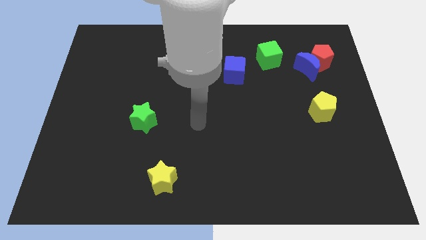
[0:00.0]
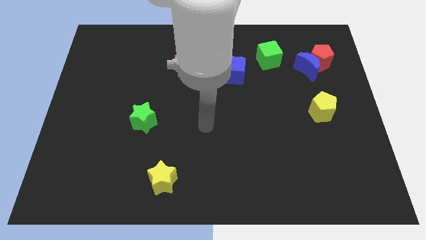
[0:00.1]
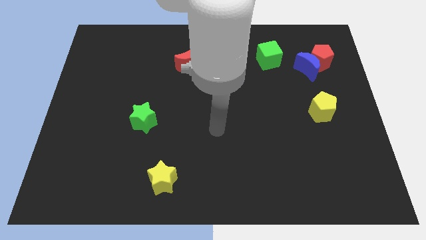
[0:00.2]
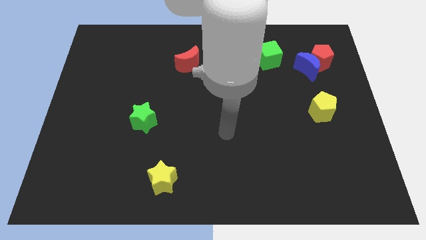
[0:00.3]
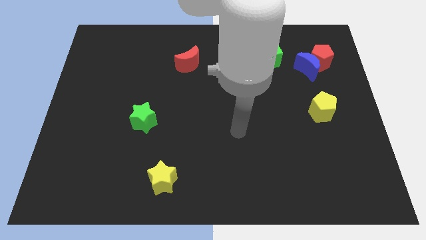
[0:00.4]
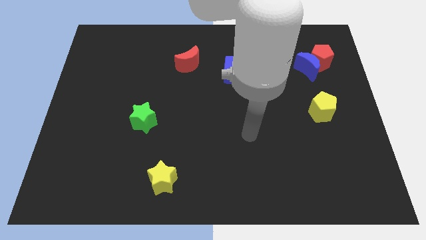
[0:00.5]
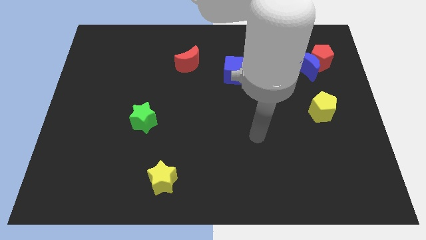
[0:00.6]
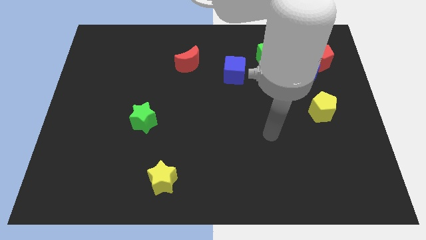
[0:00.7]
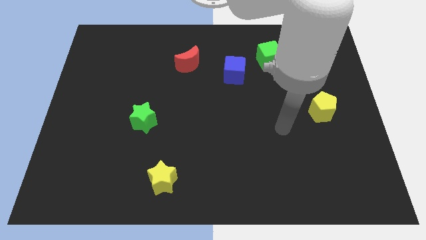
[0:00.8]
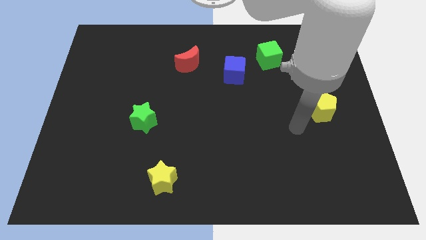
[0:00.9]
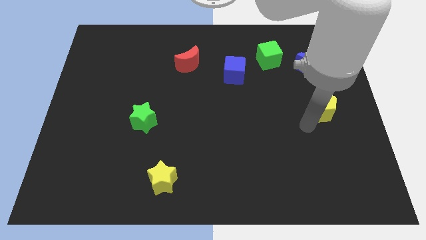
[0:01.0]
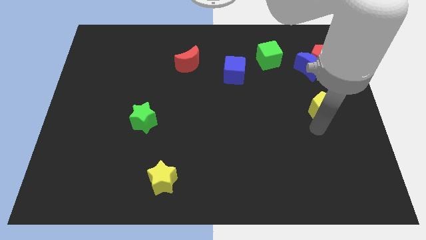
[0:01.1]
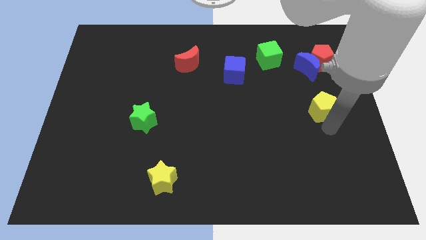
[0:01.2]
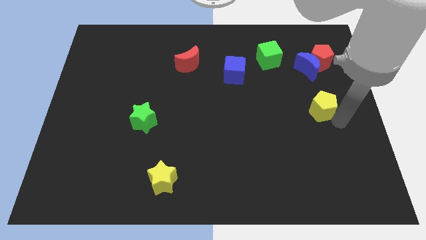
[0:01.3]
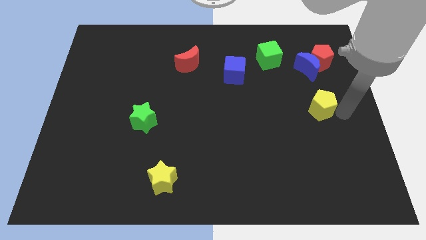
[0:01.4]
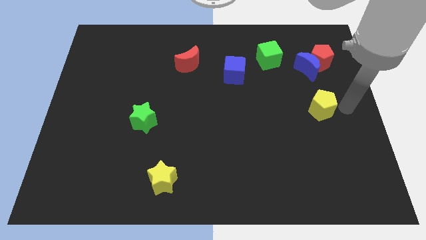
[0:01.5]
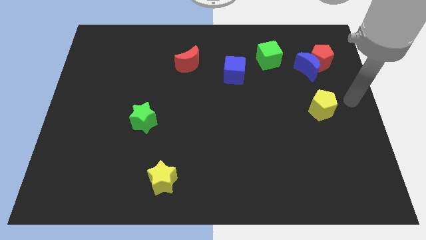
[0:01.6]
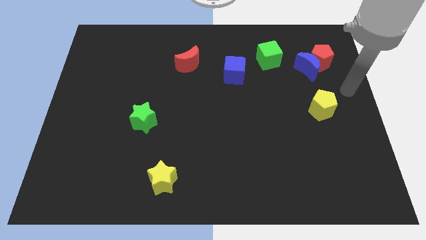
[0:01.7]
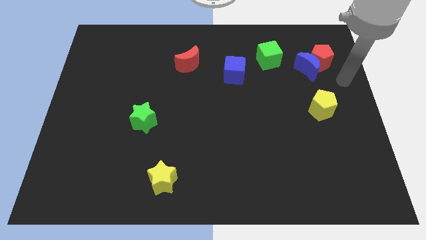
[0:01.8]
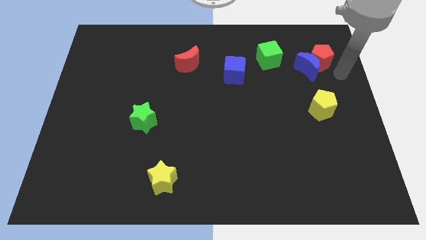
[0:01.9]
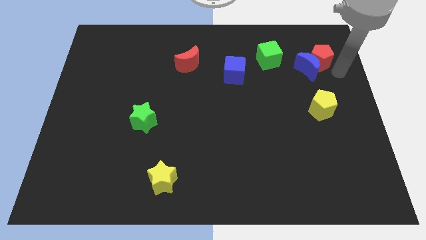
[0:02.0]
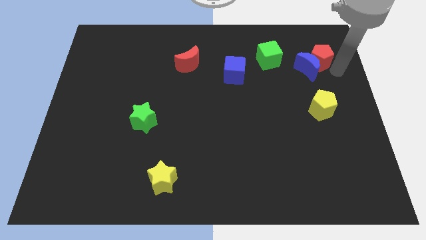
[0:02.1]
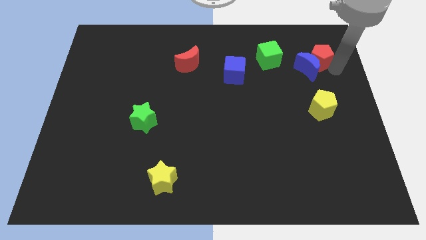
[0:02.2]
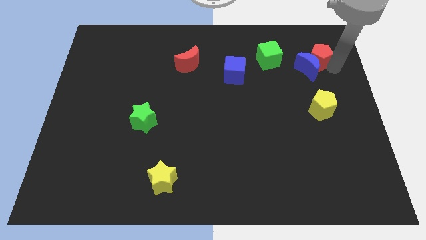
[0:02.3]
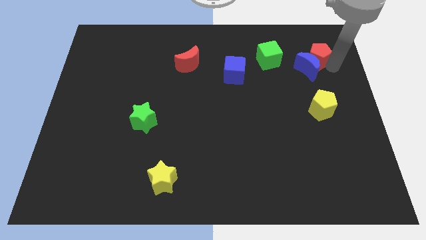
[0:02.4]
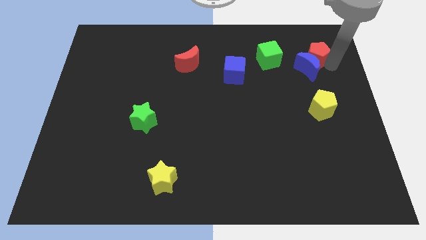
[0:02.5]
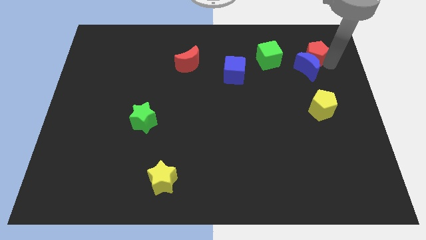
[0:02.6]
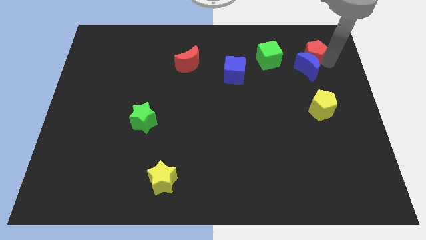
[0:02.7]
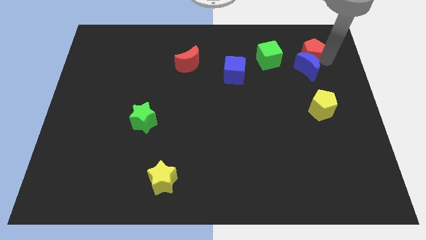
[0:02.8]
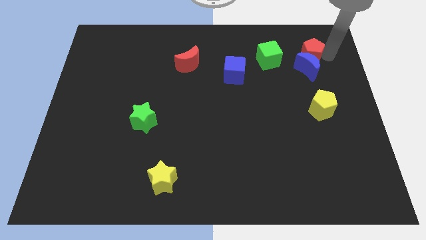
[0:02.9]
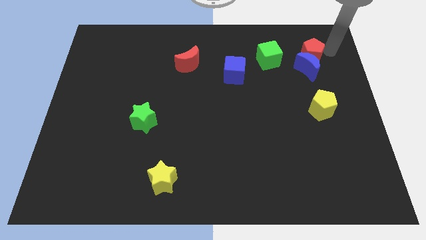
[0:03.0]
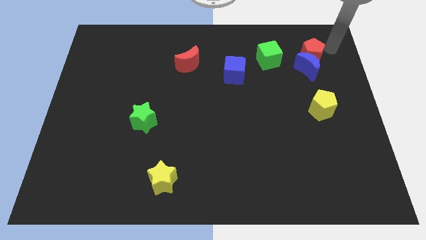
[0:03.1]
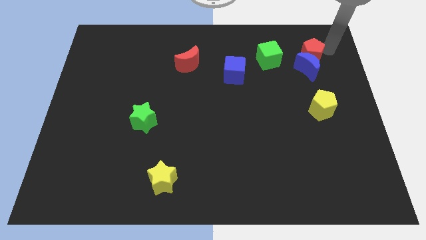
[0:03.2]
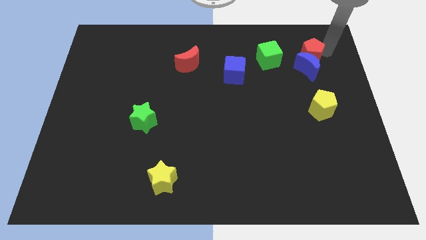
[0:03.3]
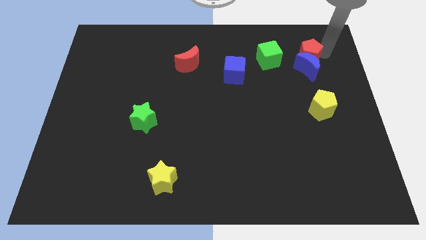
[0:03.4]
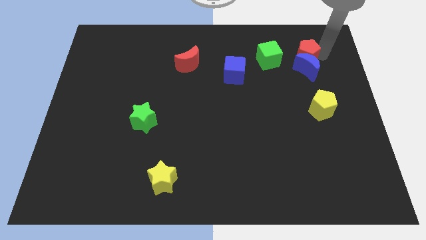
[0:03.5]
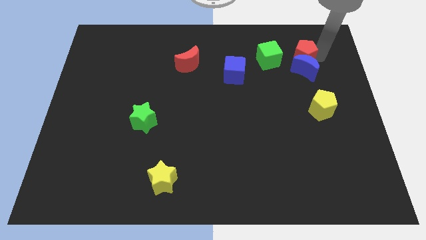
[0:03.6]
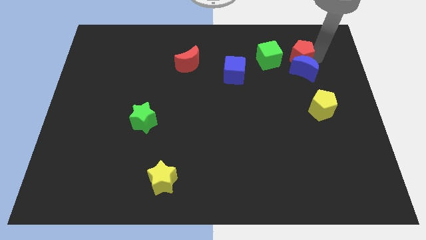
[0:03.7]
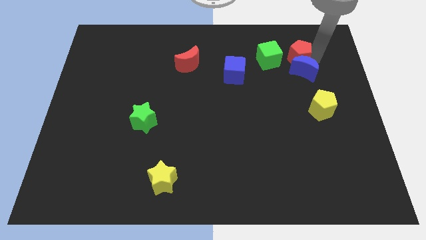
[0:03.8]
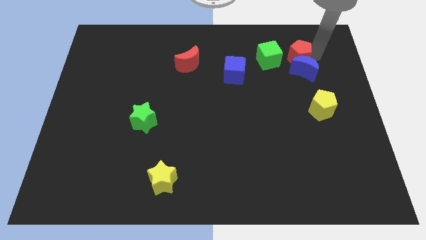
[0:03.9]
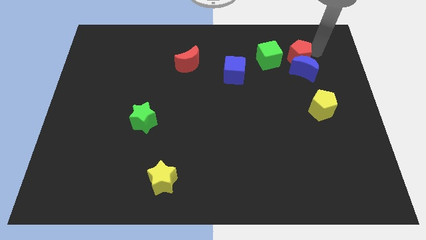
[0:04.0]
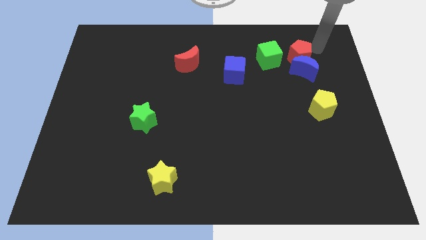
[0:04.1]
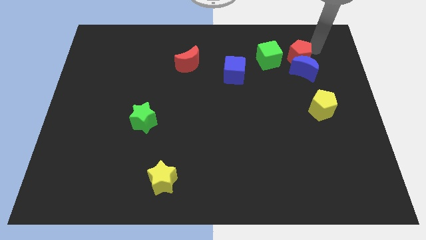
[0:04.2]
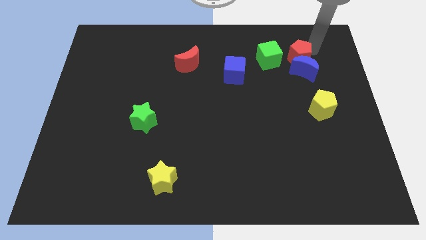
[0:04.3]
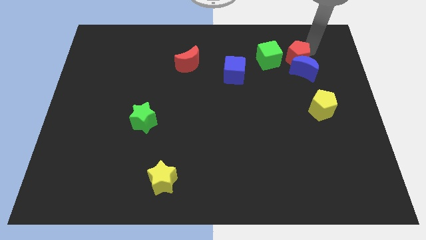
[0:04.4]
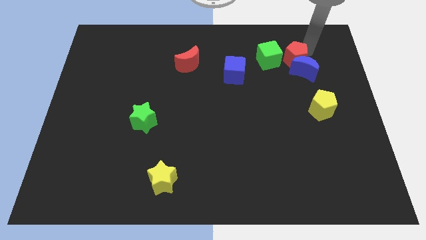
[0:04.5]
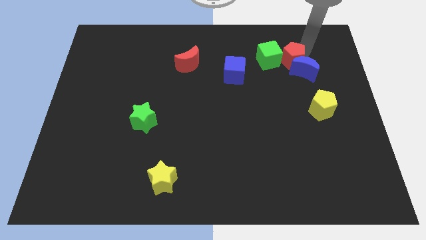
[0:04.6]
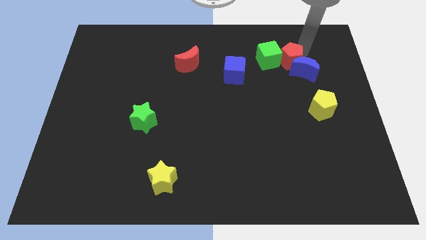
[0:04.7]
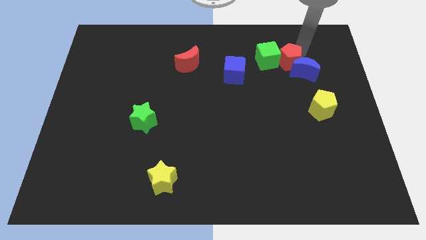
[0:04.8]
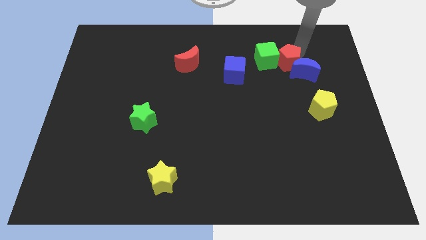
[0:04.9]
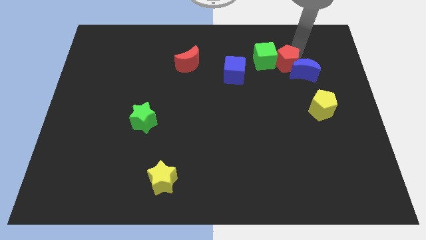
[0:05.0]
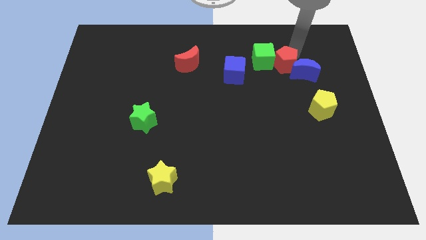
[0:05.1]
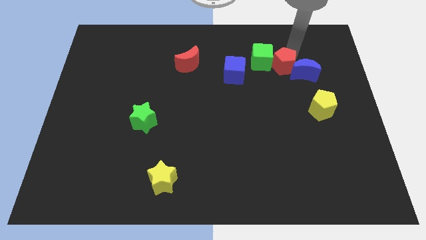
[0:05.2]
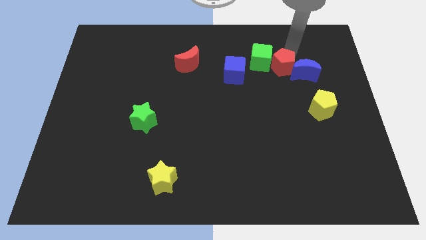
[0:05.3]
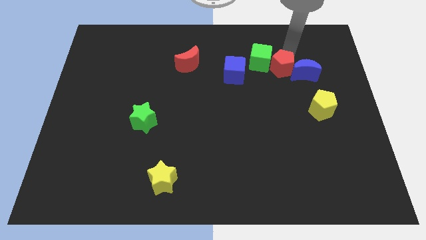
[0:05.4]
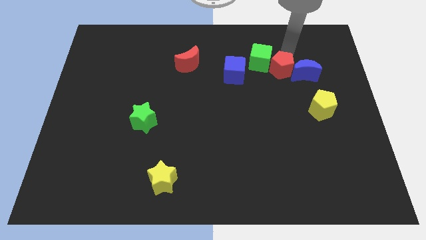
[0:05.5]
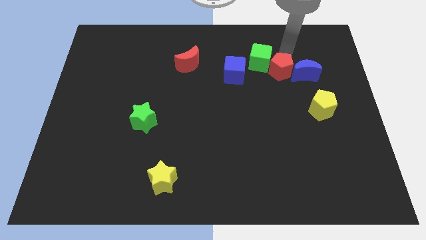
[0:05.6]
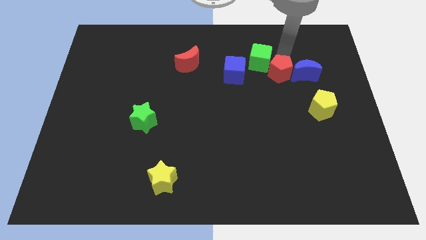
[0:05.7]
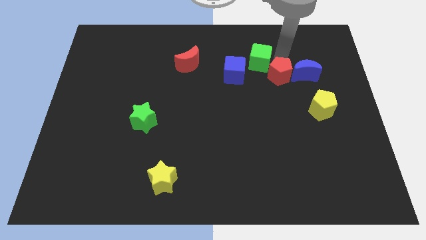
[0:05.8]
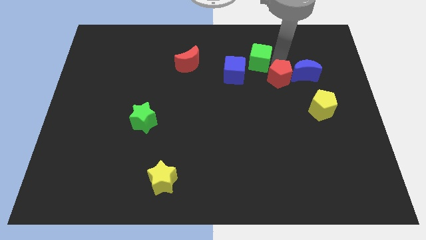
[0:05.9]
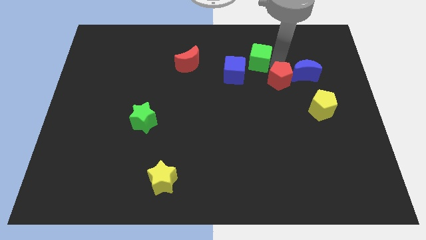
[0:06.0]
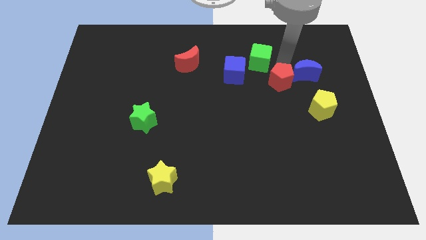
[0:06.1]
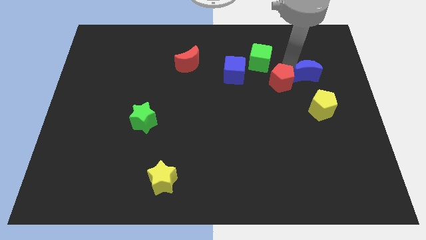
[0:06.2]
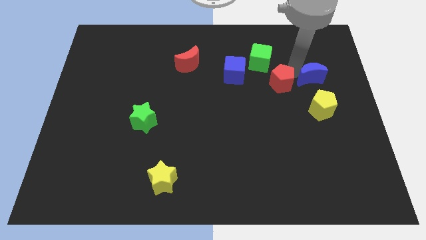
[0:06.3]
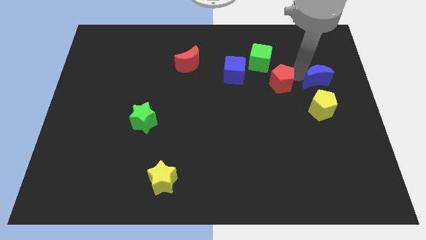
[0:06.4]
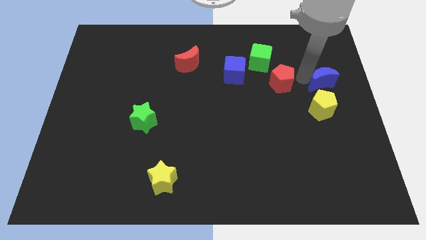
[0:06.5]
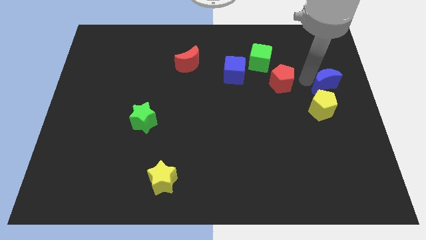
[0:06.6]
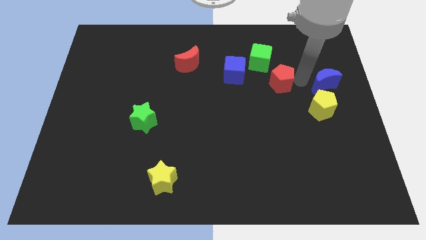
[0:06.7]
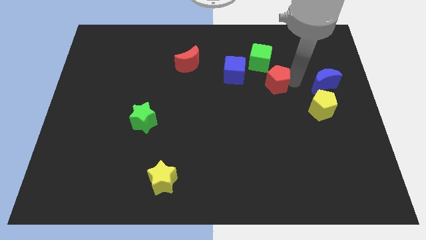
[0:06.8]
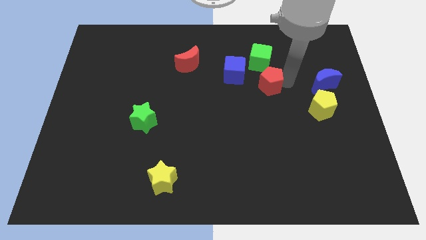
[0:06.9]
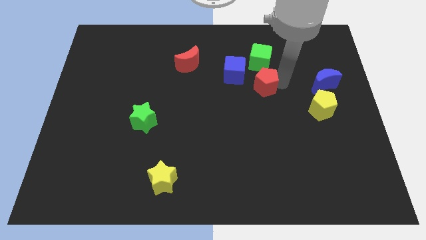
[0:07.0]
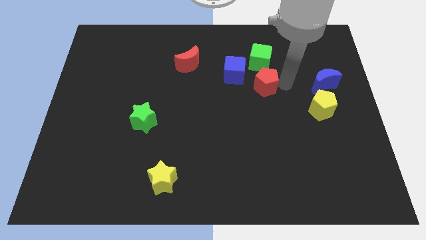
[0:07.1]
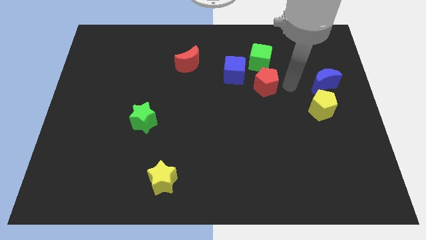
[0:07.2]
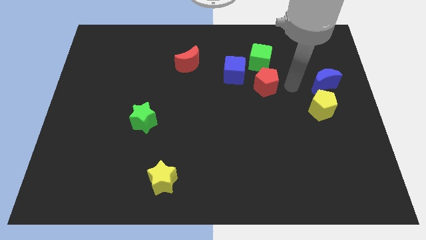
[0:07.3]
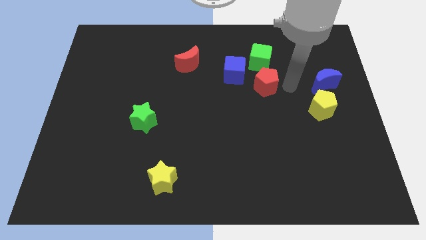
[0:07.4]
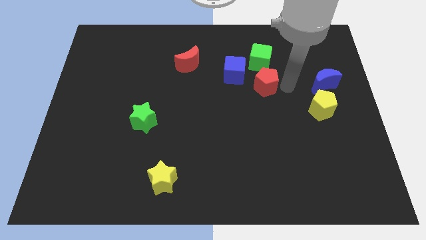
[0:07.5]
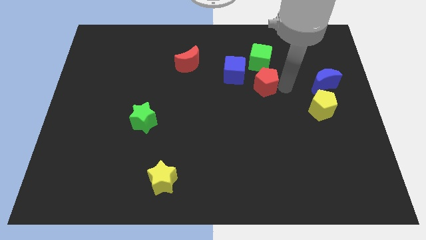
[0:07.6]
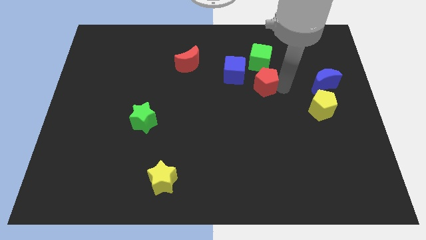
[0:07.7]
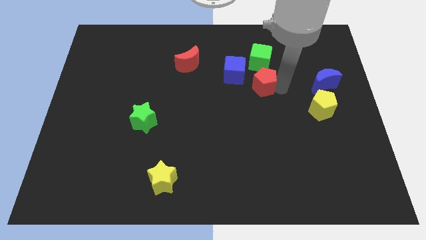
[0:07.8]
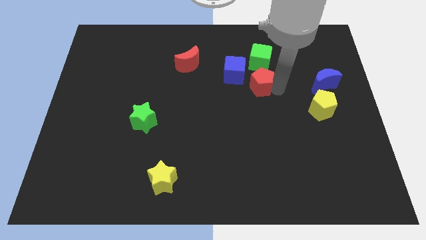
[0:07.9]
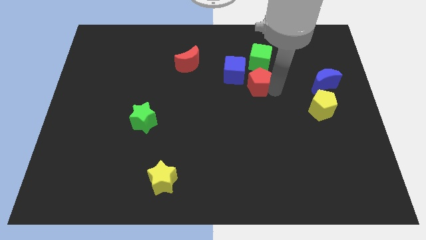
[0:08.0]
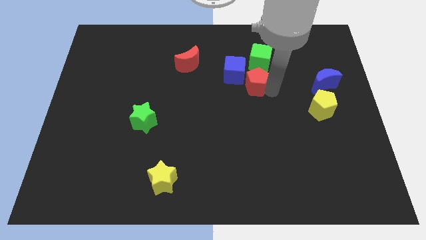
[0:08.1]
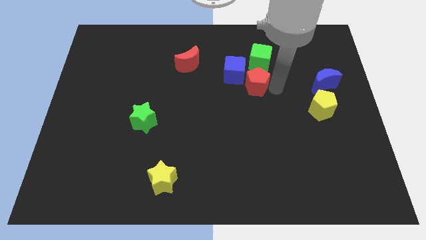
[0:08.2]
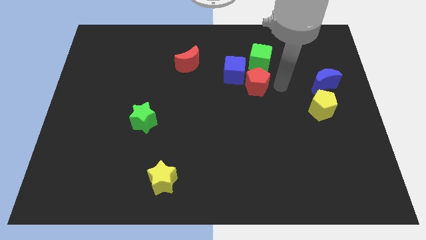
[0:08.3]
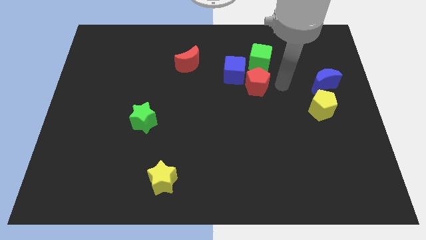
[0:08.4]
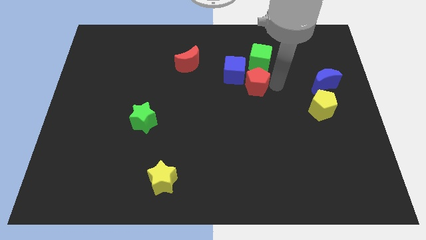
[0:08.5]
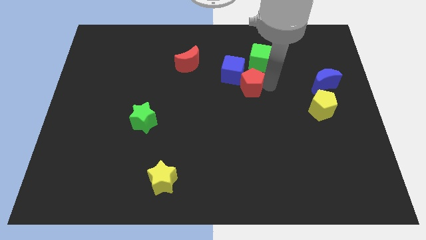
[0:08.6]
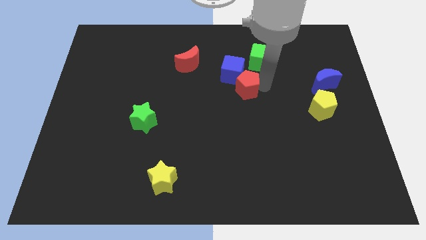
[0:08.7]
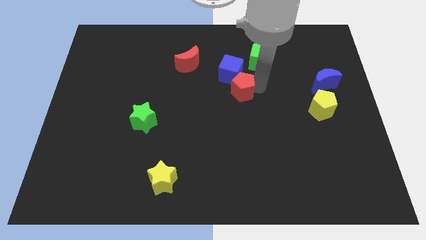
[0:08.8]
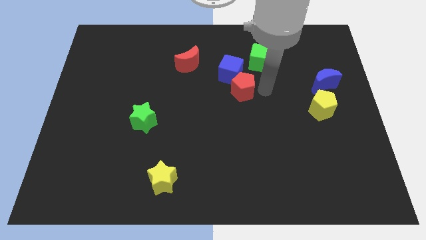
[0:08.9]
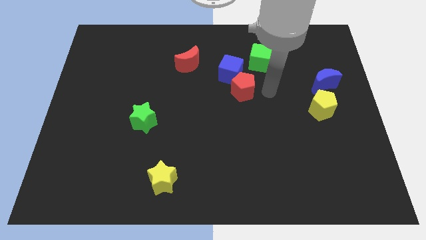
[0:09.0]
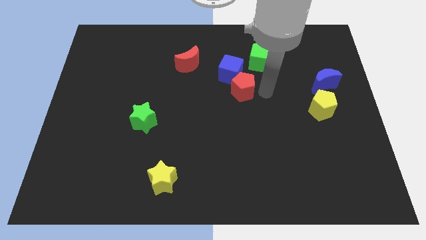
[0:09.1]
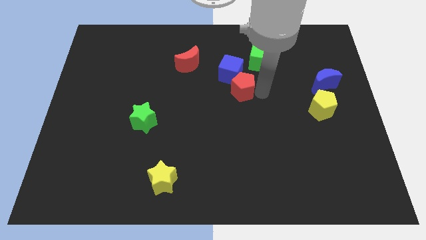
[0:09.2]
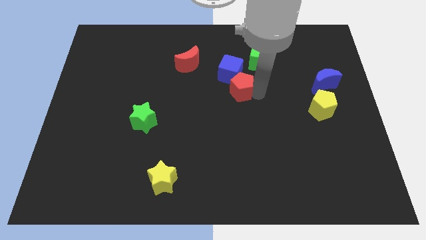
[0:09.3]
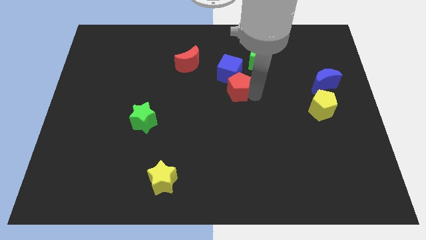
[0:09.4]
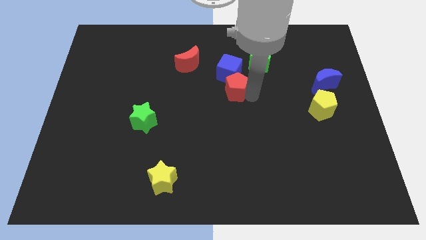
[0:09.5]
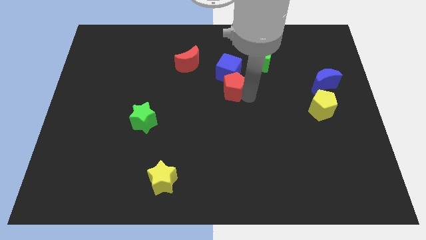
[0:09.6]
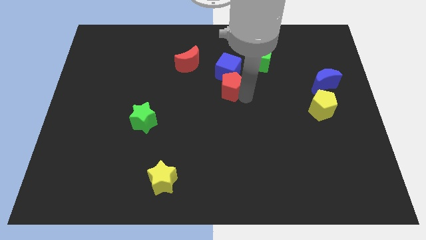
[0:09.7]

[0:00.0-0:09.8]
slide the red pentagon diagonally down and to the left of the blue cube
